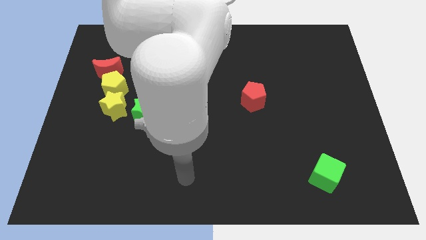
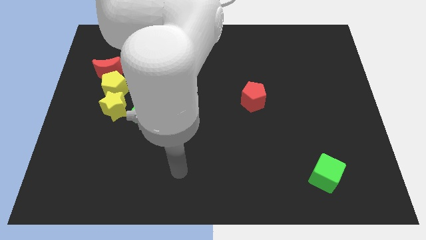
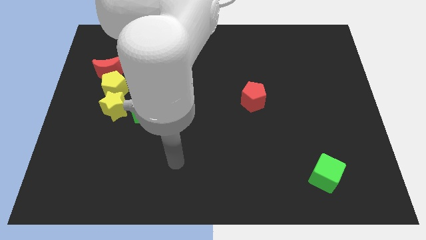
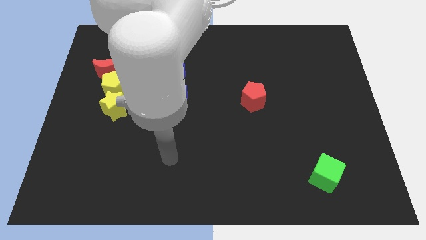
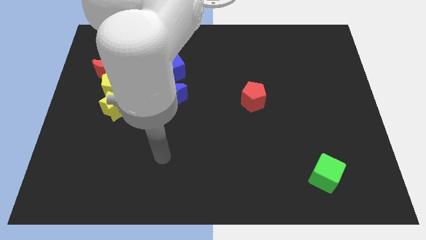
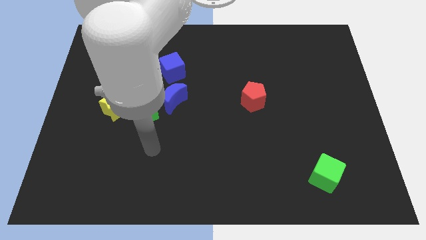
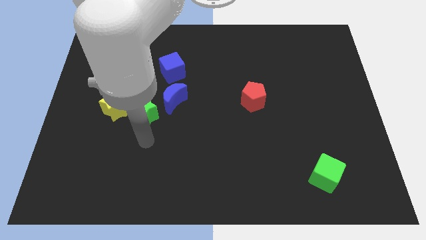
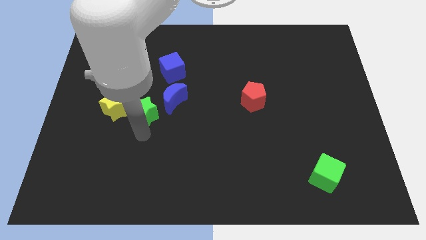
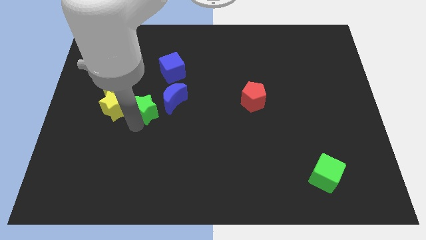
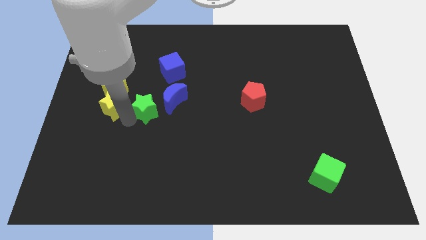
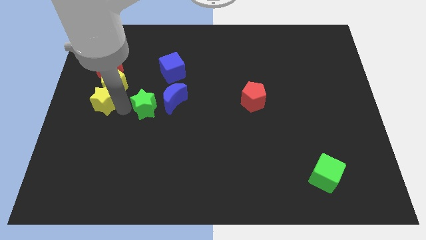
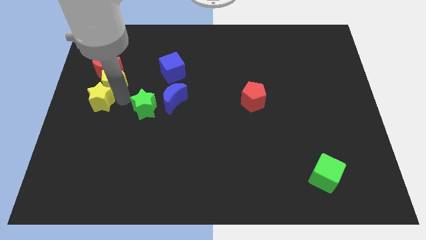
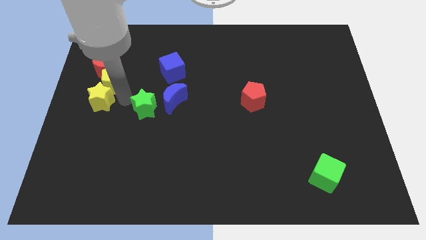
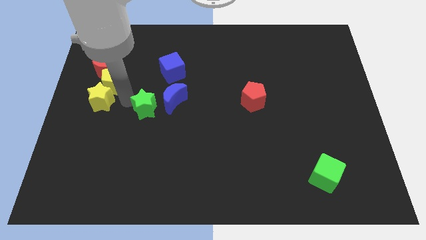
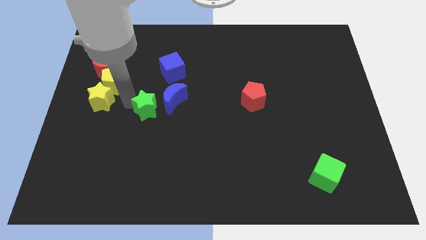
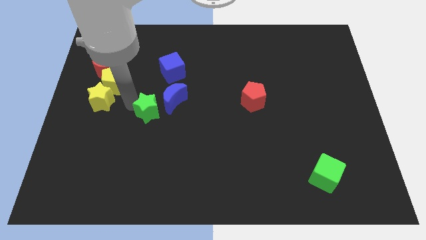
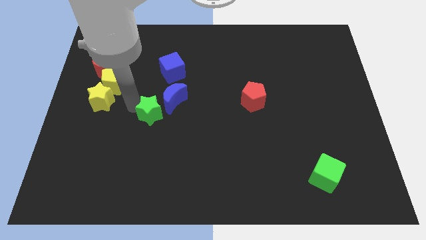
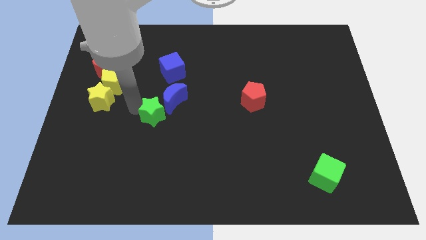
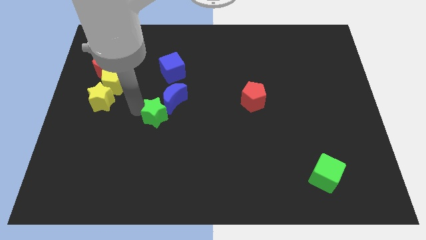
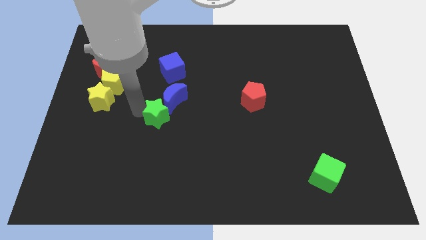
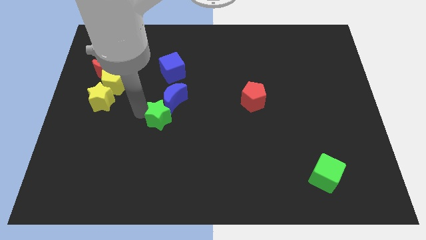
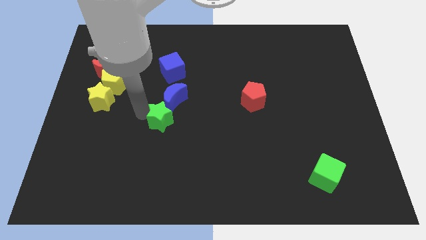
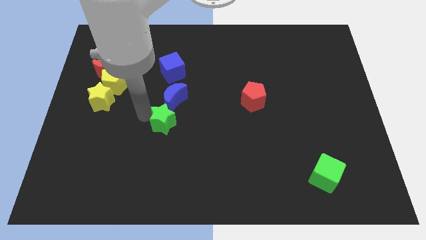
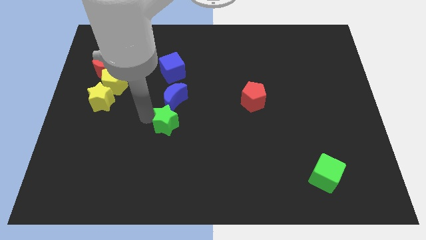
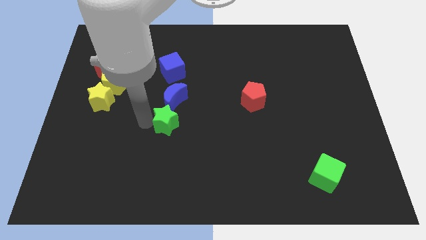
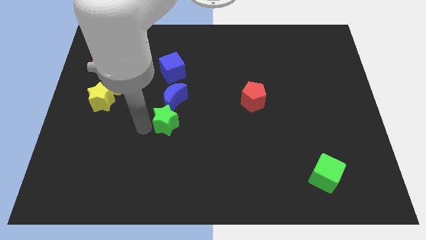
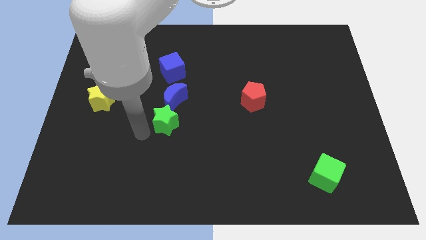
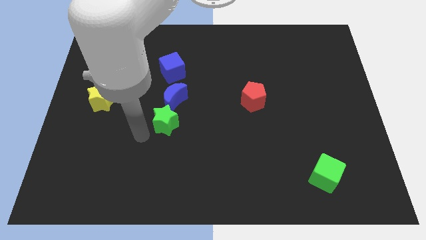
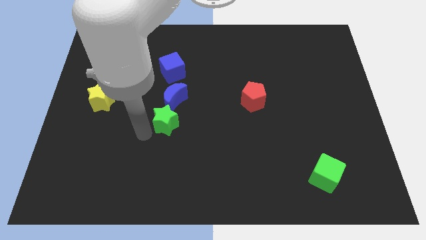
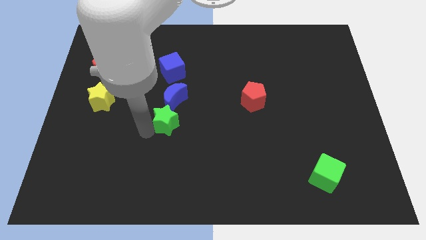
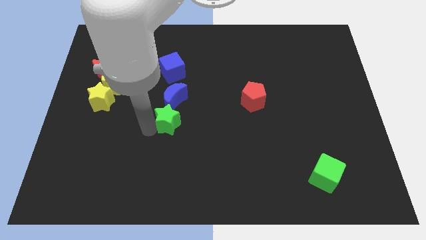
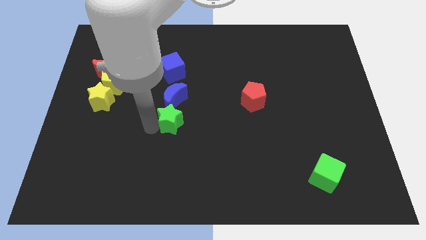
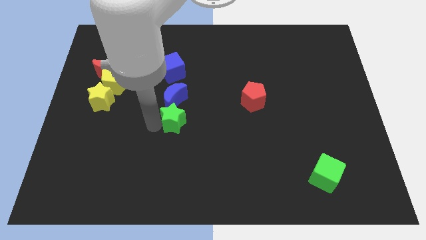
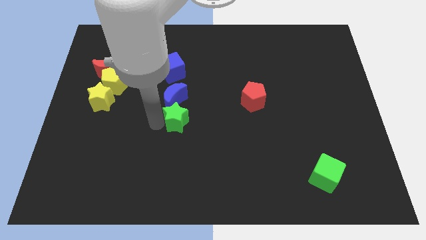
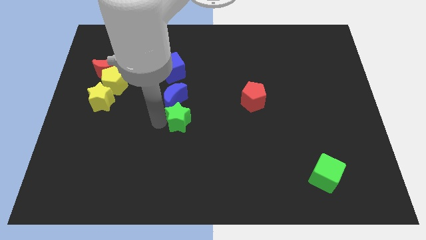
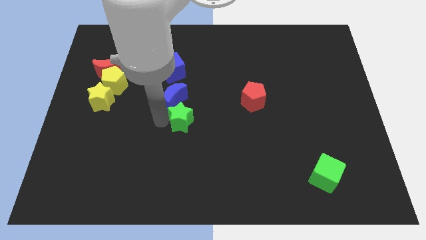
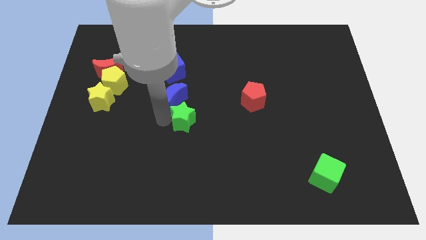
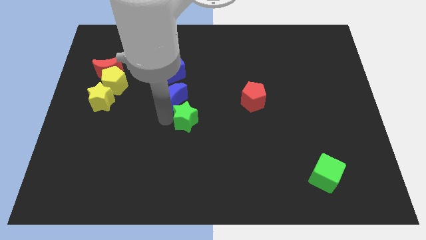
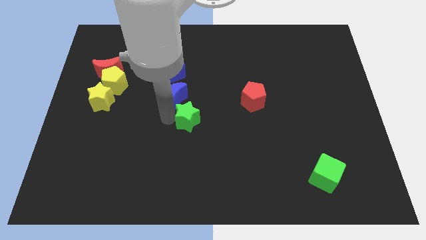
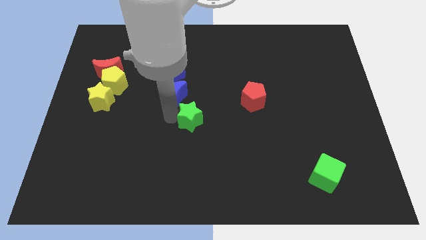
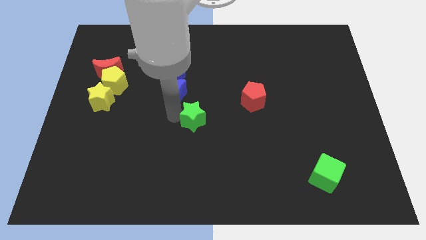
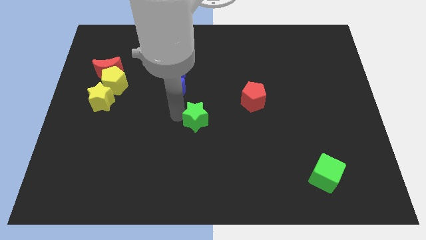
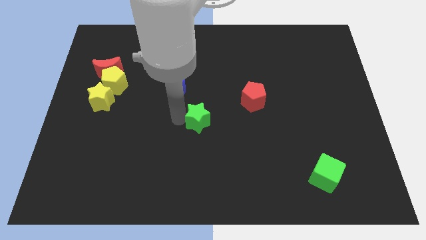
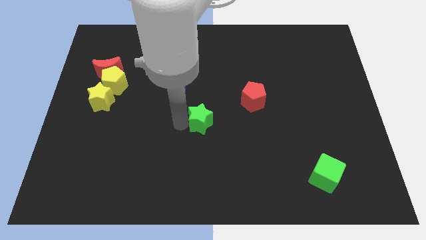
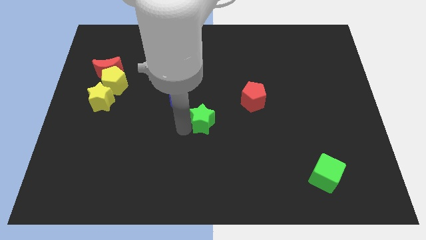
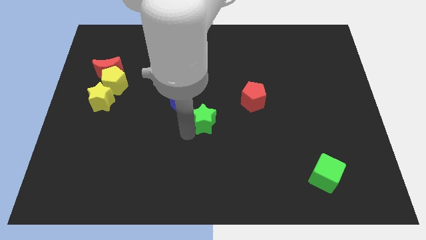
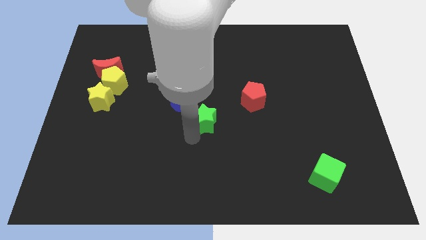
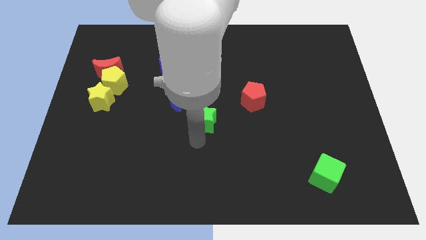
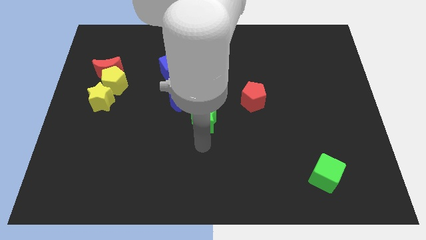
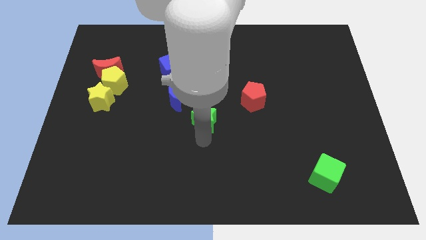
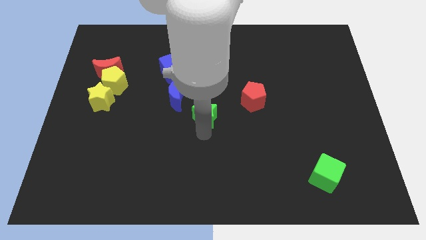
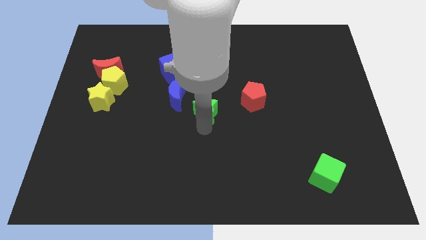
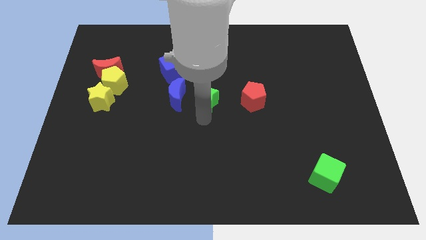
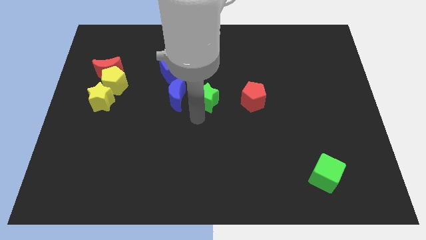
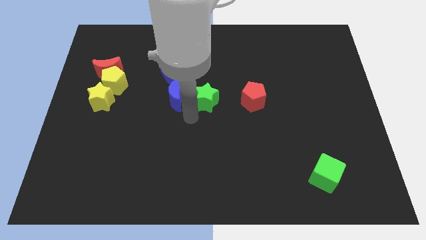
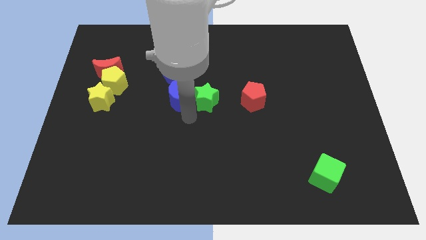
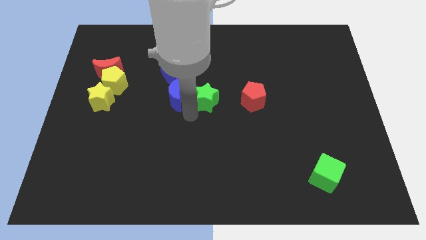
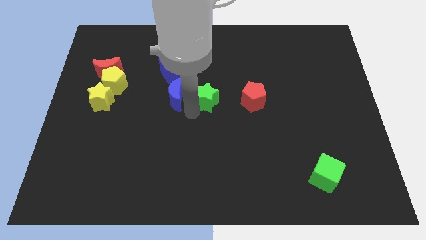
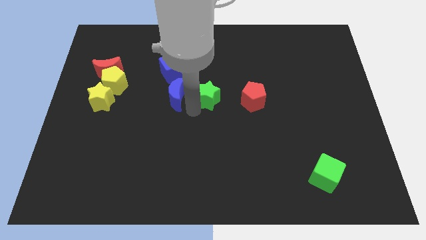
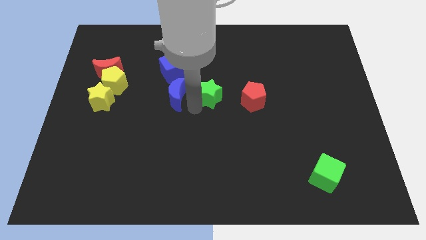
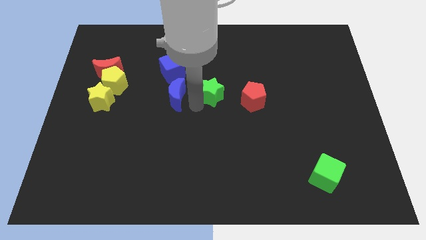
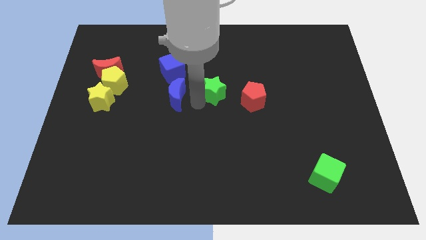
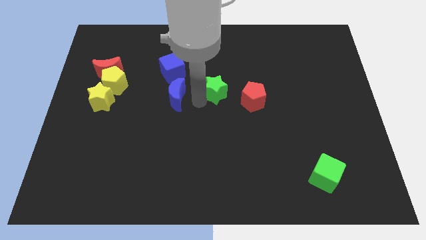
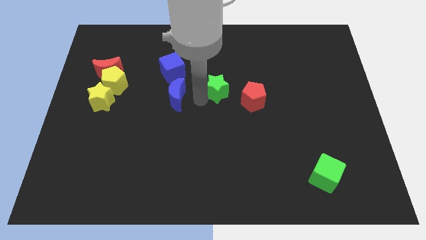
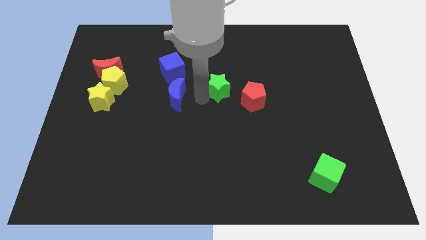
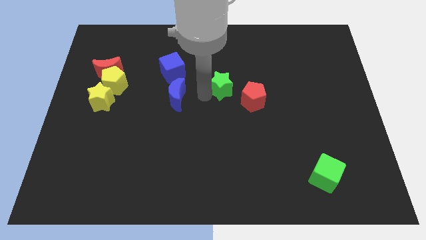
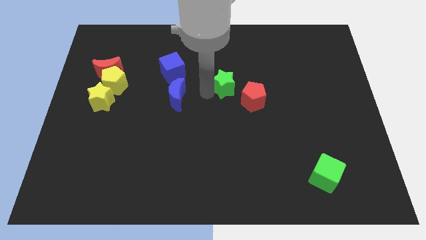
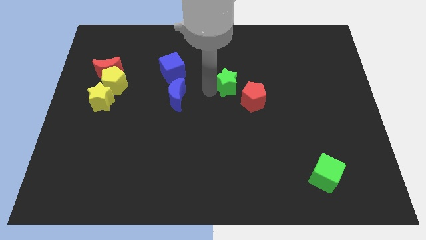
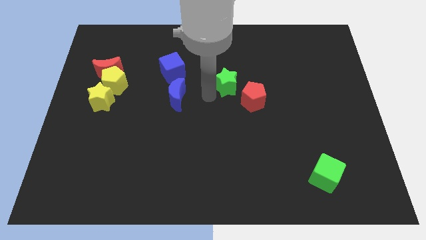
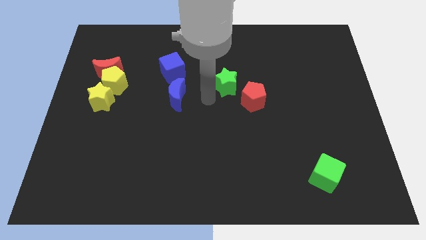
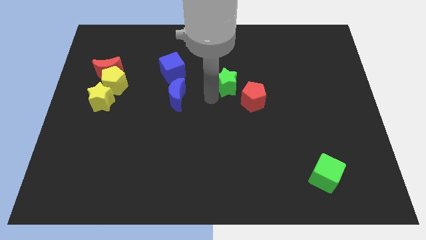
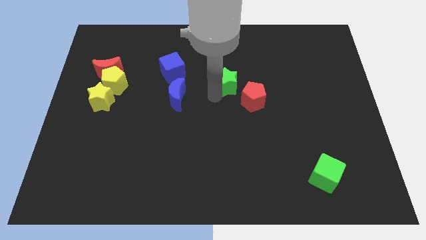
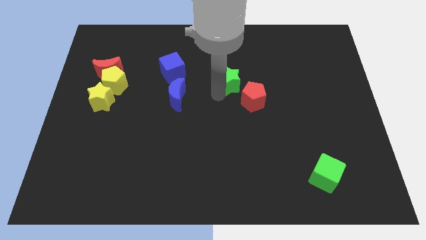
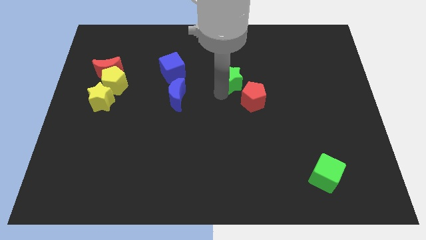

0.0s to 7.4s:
push the green star above the red pentagon
